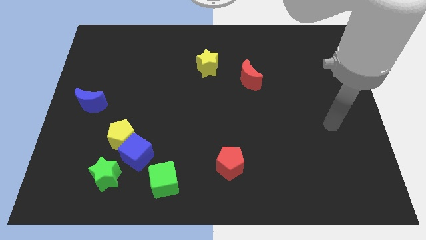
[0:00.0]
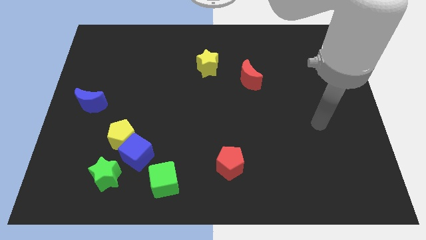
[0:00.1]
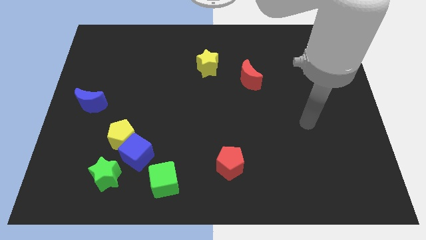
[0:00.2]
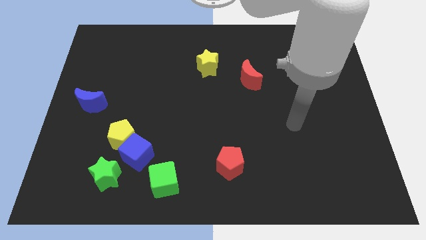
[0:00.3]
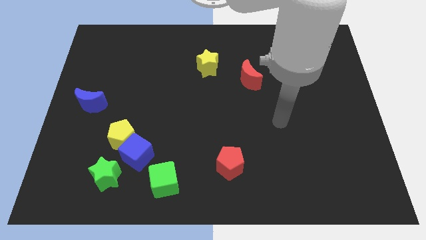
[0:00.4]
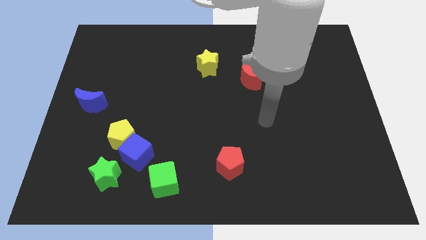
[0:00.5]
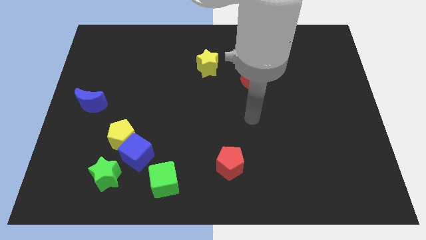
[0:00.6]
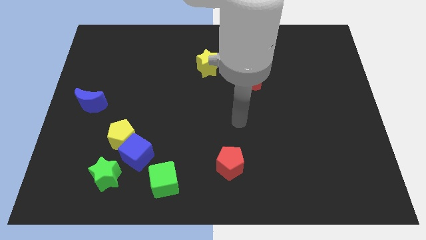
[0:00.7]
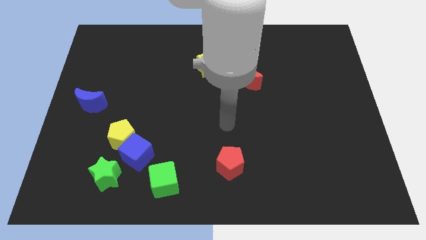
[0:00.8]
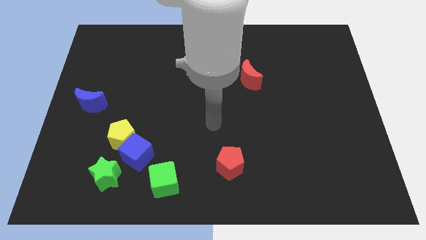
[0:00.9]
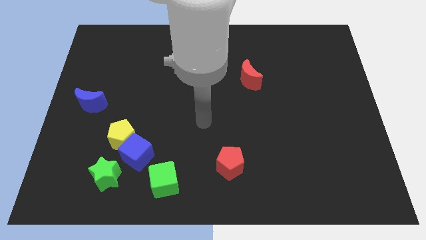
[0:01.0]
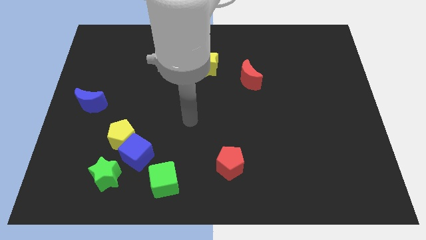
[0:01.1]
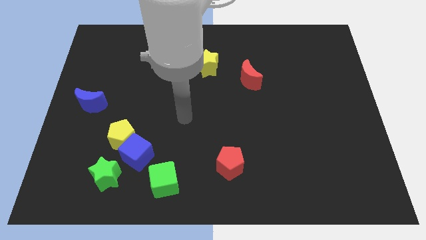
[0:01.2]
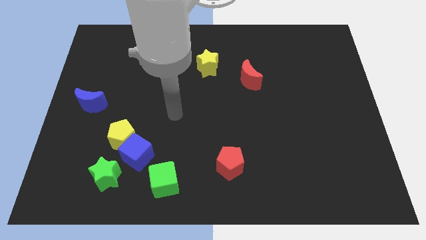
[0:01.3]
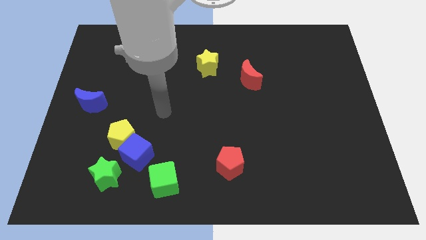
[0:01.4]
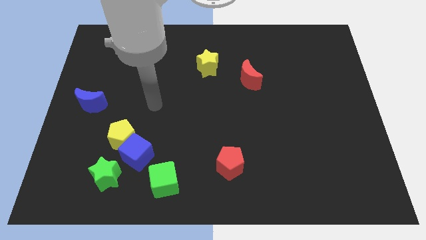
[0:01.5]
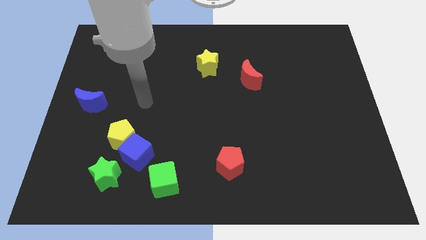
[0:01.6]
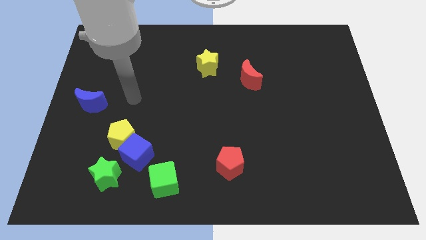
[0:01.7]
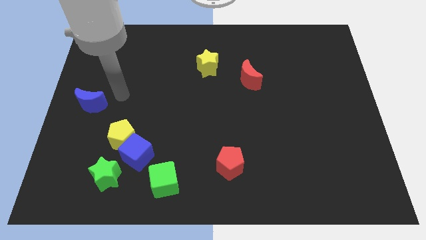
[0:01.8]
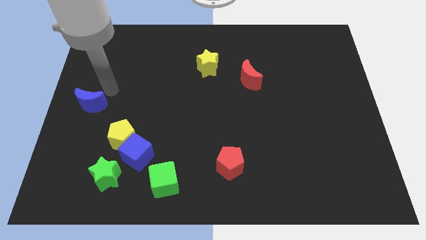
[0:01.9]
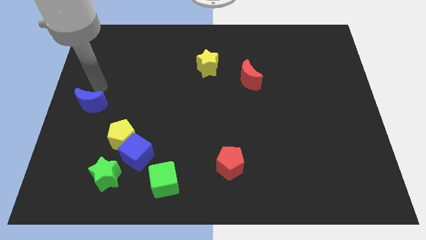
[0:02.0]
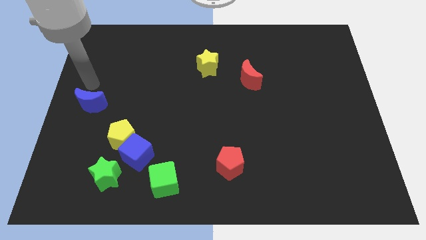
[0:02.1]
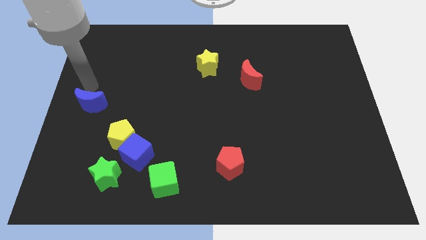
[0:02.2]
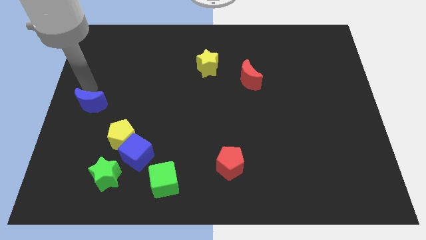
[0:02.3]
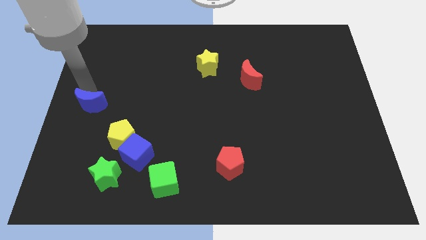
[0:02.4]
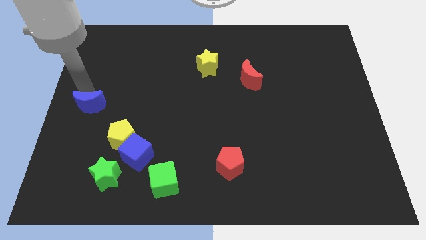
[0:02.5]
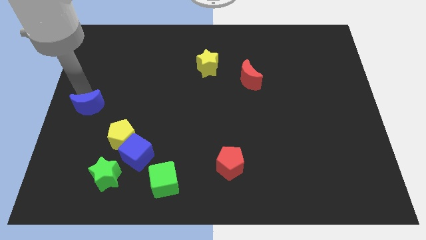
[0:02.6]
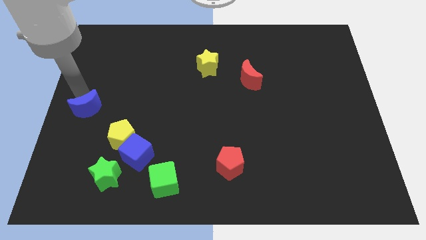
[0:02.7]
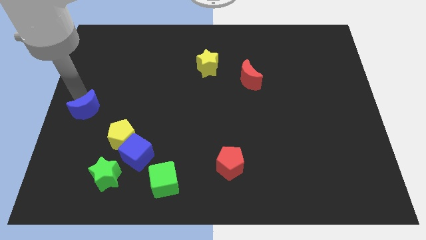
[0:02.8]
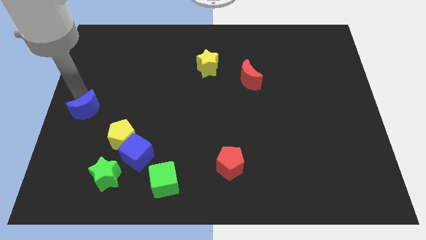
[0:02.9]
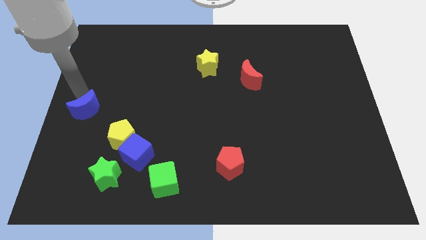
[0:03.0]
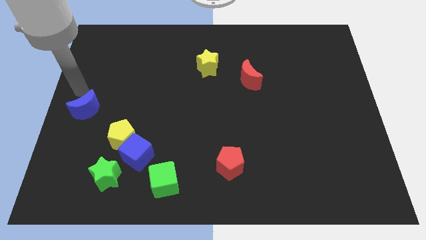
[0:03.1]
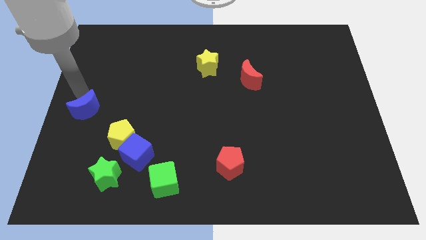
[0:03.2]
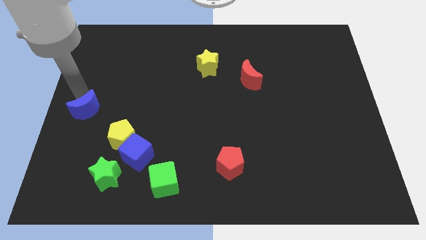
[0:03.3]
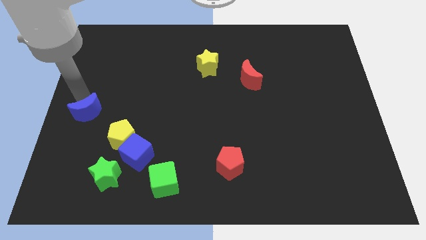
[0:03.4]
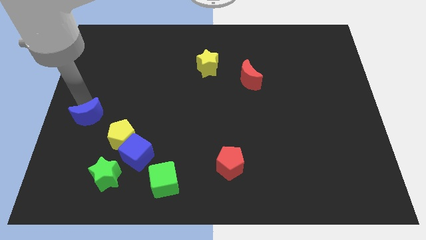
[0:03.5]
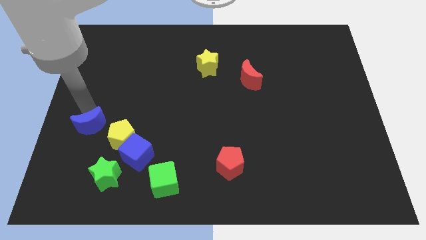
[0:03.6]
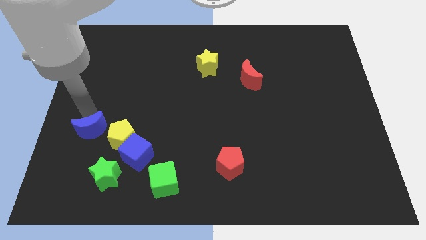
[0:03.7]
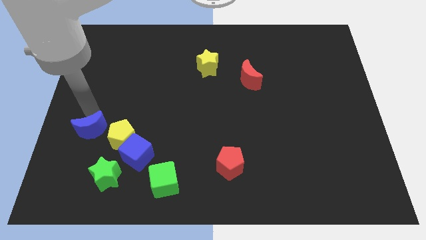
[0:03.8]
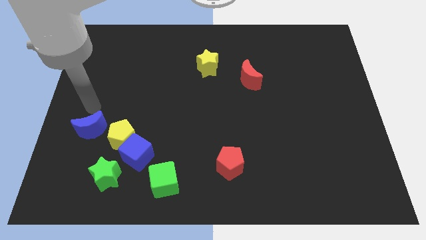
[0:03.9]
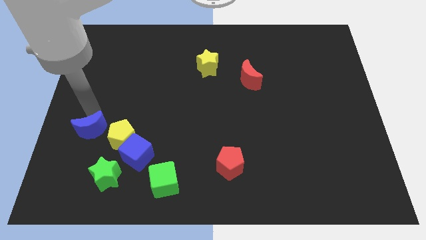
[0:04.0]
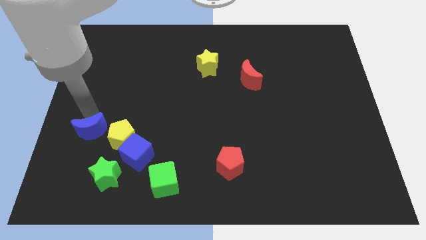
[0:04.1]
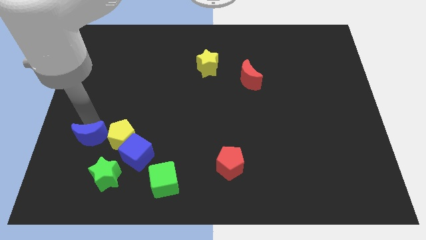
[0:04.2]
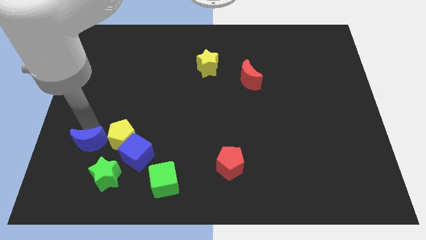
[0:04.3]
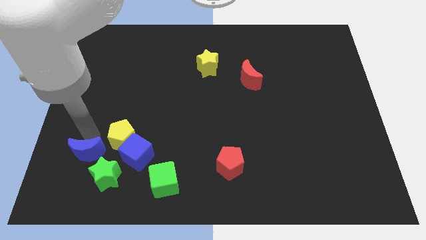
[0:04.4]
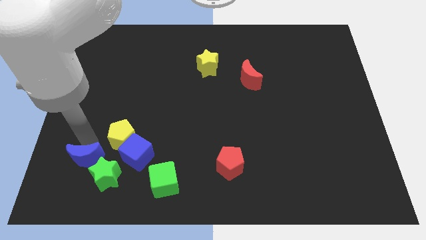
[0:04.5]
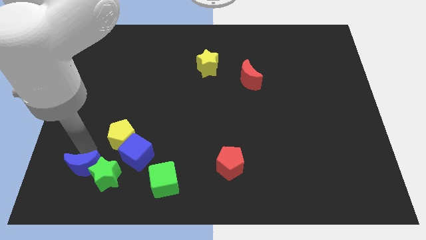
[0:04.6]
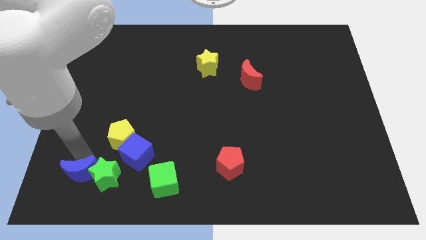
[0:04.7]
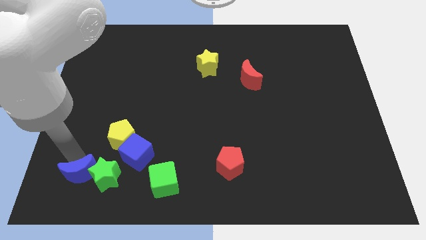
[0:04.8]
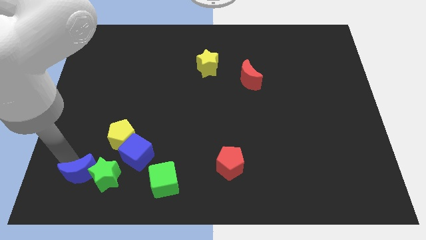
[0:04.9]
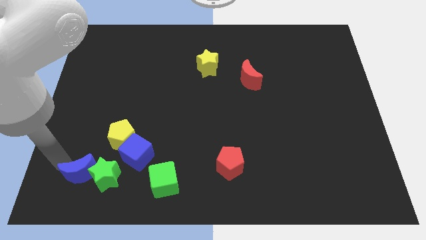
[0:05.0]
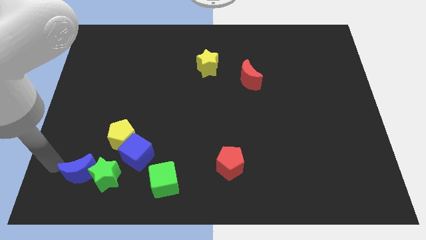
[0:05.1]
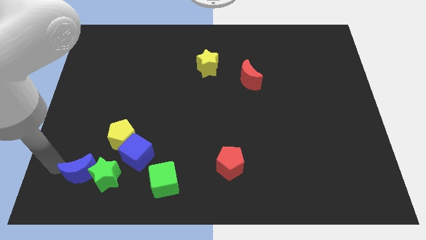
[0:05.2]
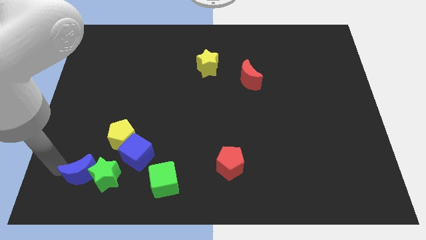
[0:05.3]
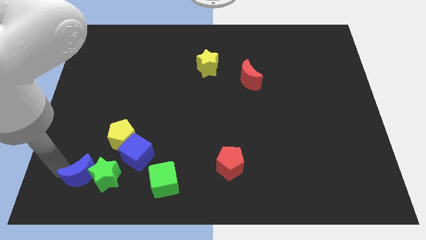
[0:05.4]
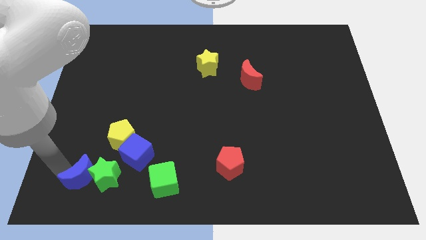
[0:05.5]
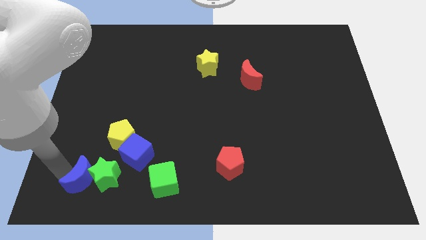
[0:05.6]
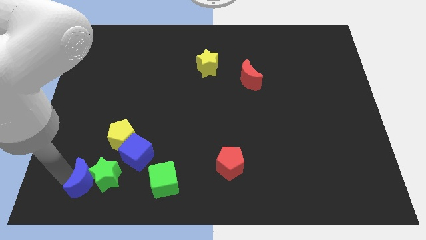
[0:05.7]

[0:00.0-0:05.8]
put the blue moon just left of the green cube
